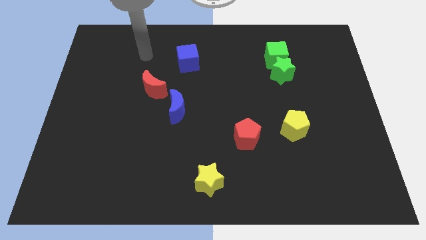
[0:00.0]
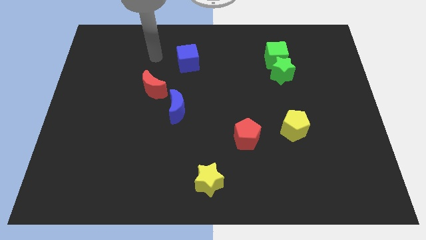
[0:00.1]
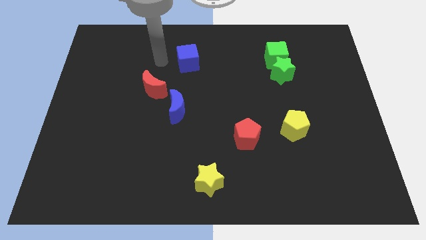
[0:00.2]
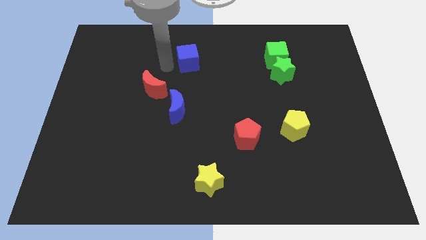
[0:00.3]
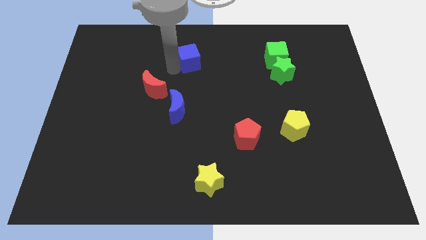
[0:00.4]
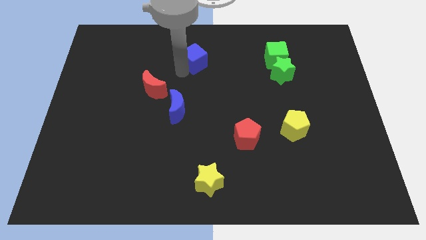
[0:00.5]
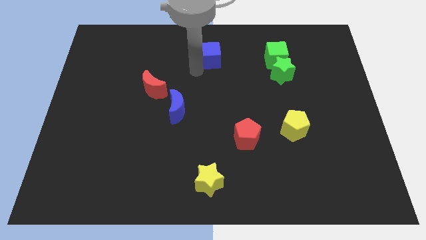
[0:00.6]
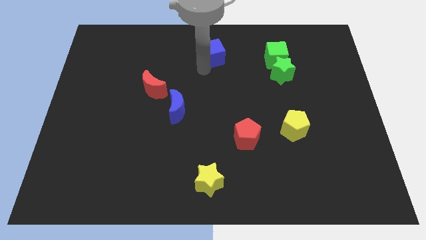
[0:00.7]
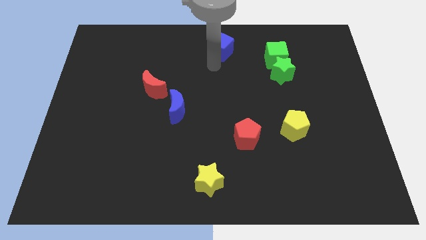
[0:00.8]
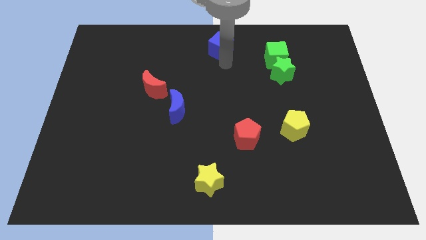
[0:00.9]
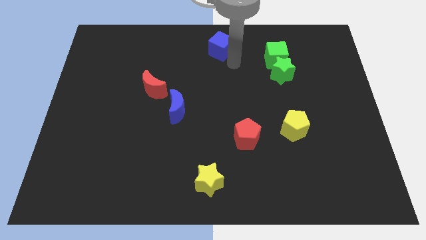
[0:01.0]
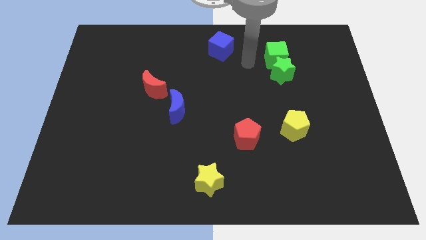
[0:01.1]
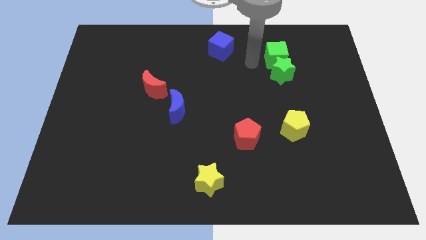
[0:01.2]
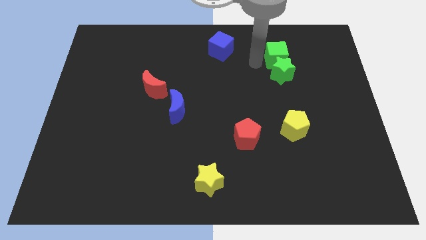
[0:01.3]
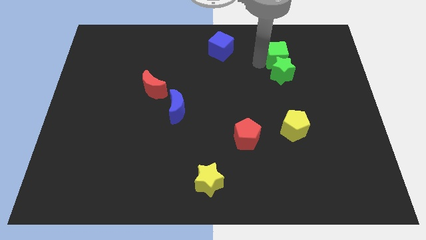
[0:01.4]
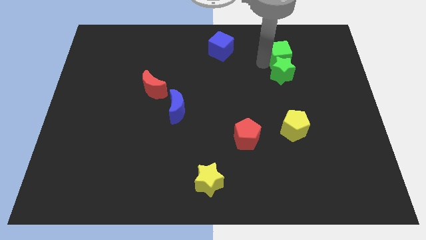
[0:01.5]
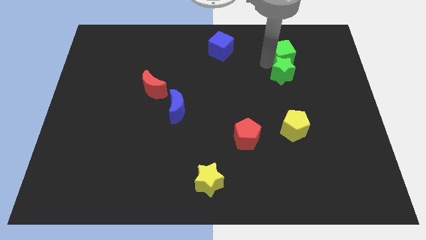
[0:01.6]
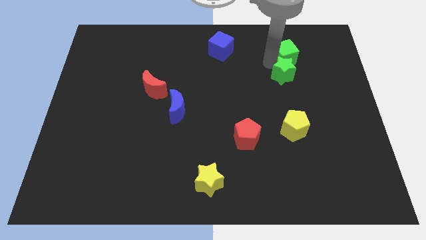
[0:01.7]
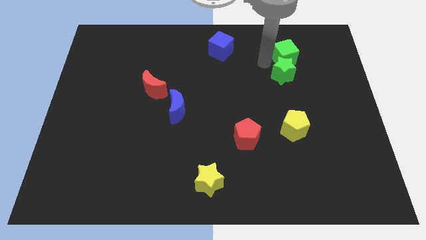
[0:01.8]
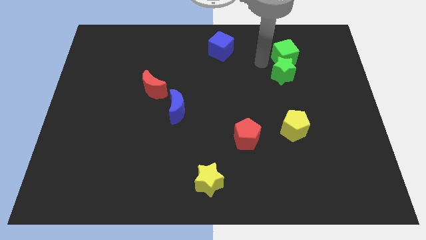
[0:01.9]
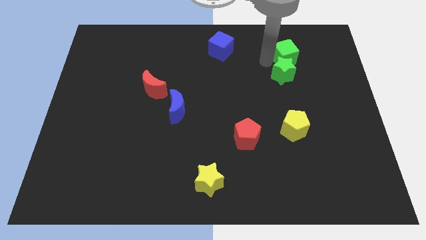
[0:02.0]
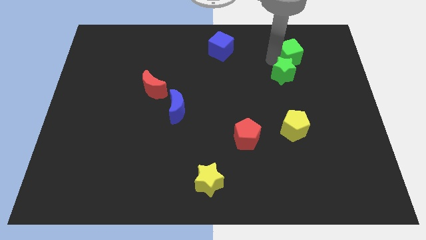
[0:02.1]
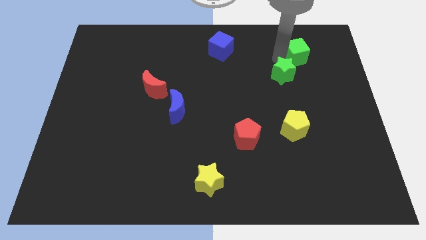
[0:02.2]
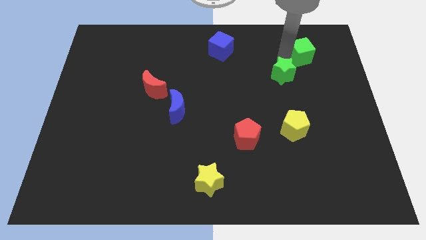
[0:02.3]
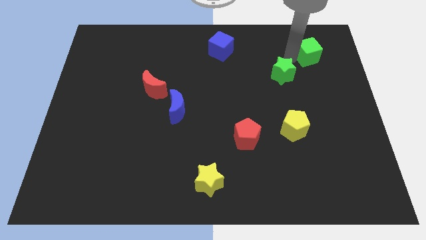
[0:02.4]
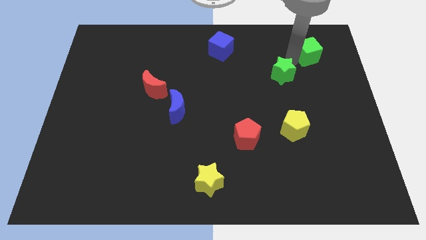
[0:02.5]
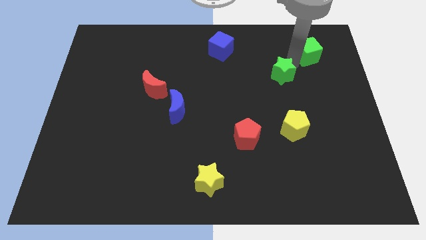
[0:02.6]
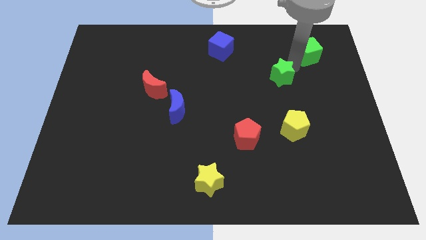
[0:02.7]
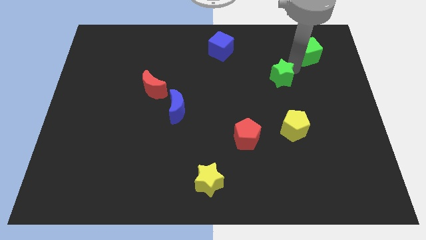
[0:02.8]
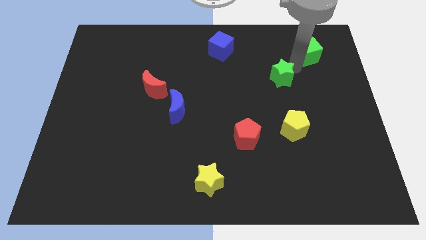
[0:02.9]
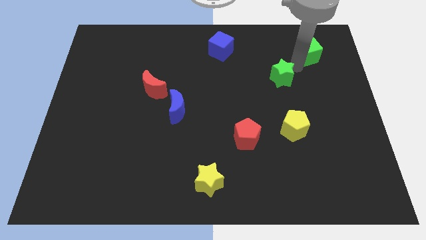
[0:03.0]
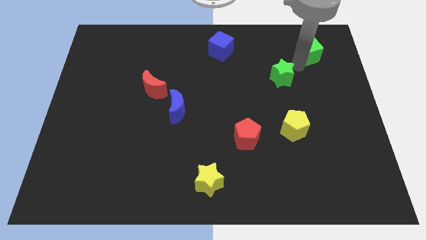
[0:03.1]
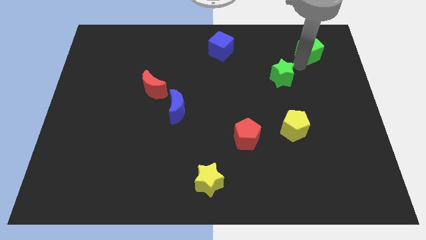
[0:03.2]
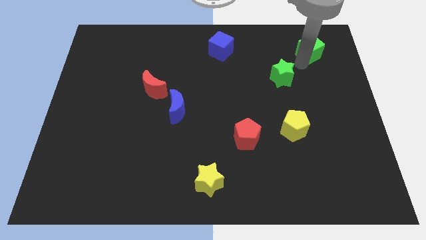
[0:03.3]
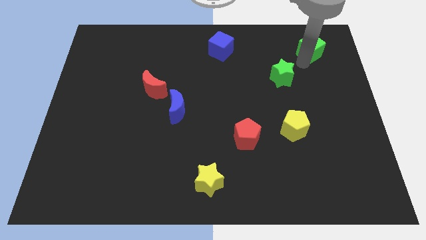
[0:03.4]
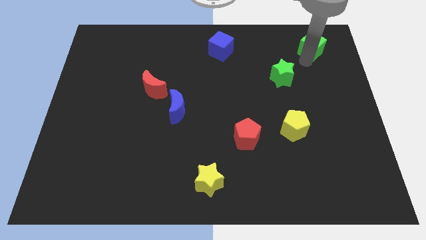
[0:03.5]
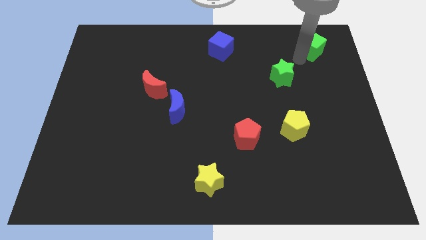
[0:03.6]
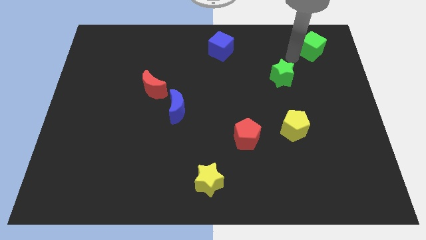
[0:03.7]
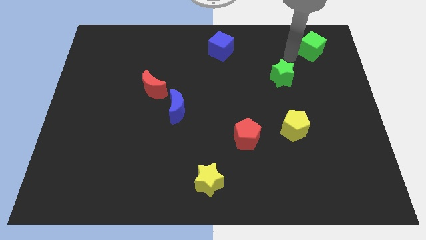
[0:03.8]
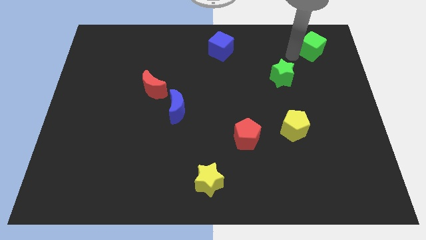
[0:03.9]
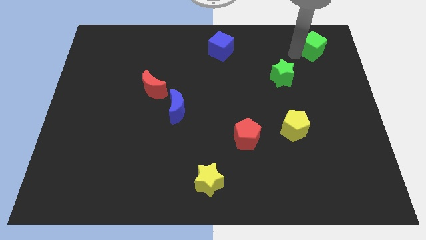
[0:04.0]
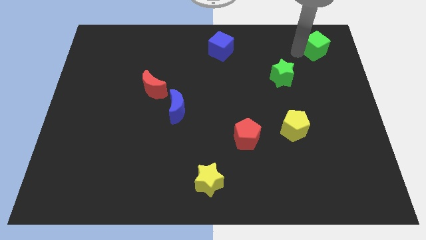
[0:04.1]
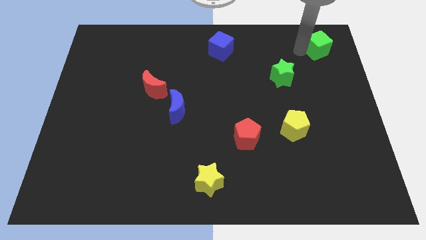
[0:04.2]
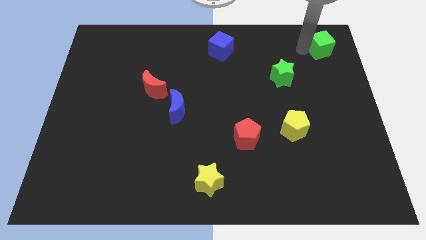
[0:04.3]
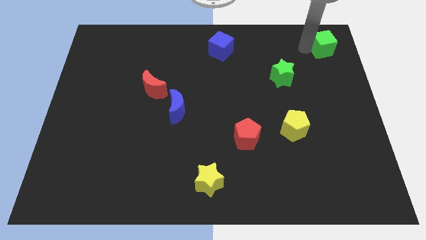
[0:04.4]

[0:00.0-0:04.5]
slide the green cube to the top right of the board

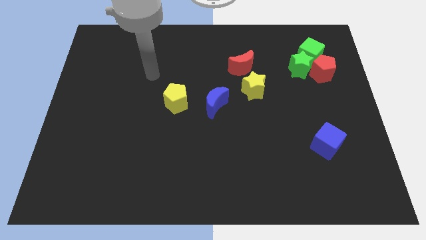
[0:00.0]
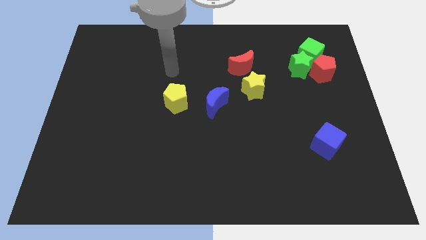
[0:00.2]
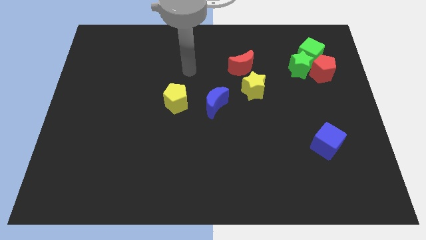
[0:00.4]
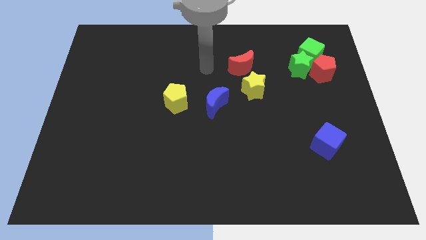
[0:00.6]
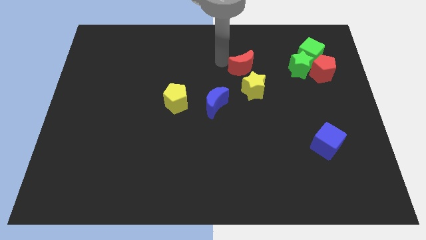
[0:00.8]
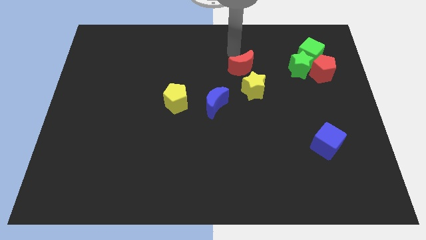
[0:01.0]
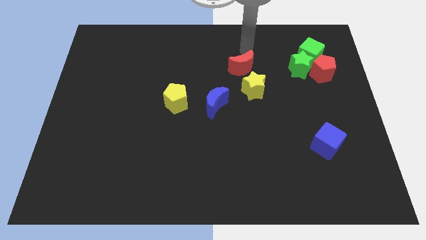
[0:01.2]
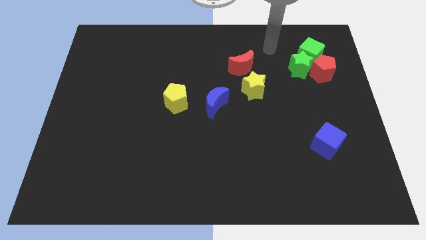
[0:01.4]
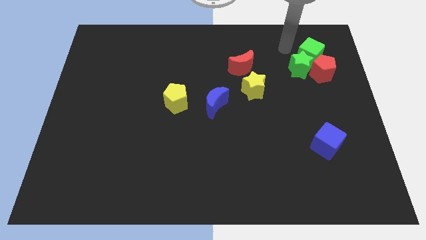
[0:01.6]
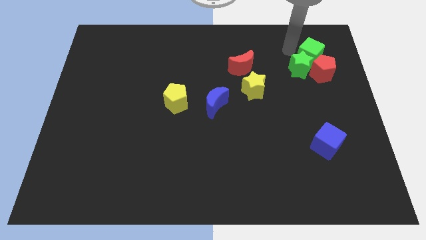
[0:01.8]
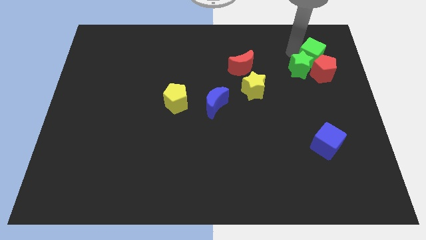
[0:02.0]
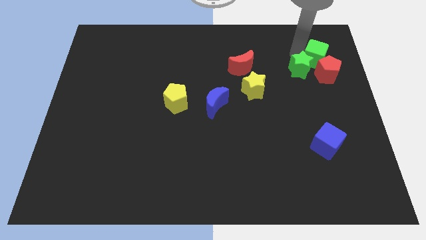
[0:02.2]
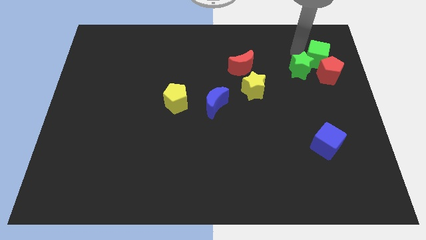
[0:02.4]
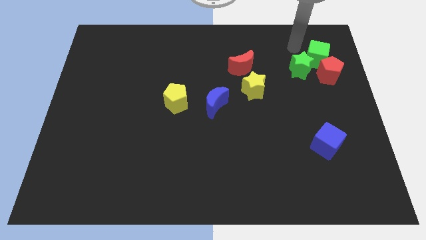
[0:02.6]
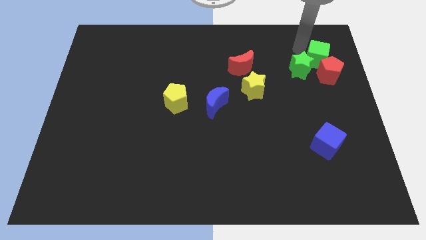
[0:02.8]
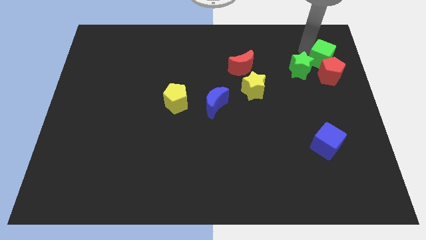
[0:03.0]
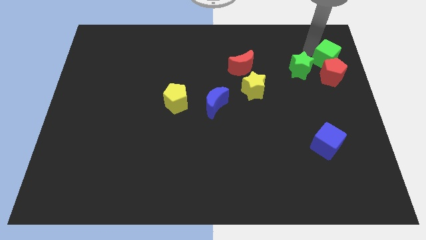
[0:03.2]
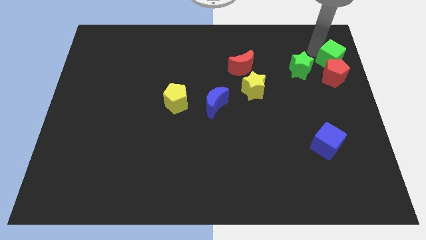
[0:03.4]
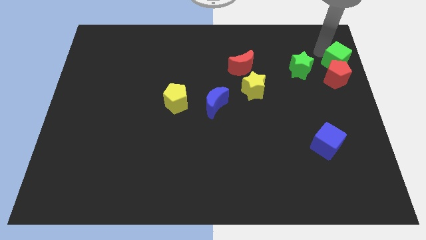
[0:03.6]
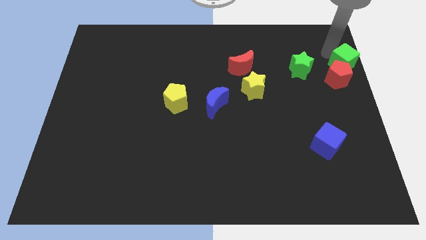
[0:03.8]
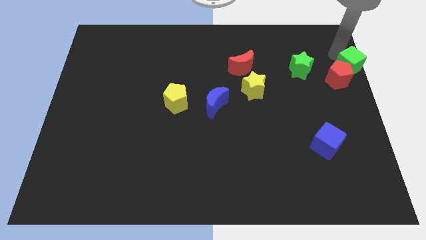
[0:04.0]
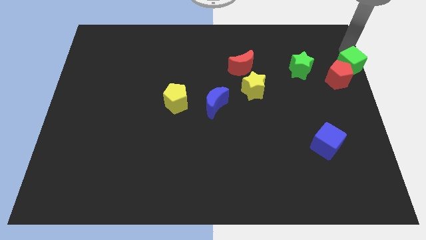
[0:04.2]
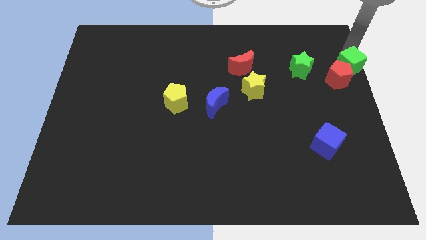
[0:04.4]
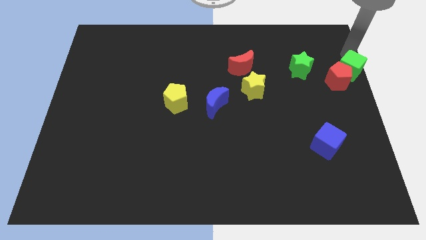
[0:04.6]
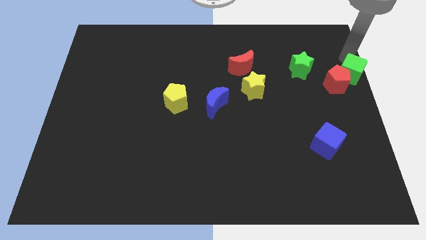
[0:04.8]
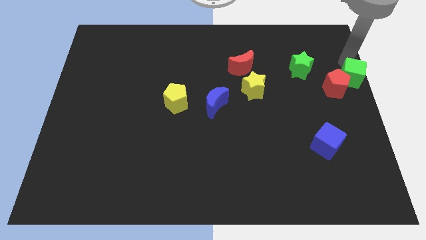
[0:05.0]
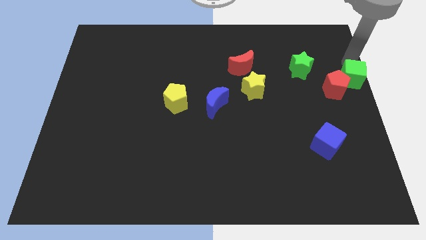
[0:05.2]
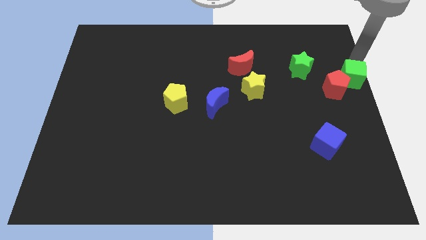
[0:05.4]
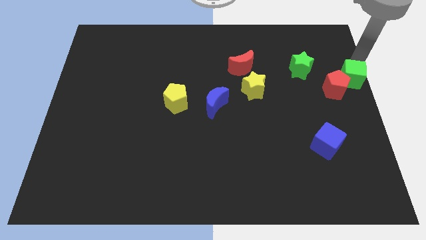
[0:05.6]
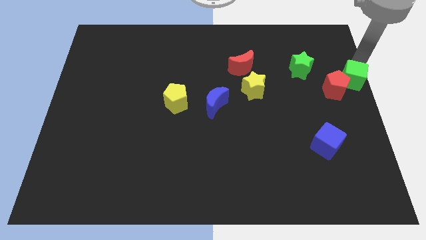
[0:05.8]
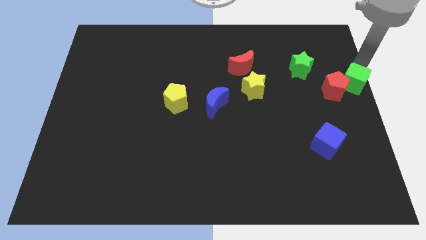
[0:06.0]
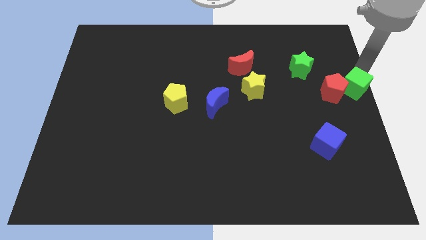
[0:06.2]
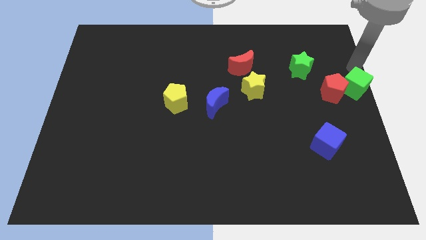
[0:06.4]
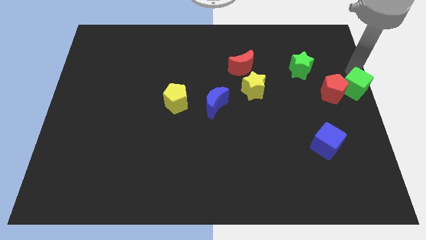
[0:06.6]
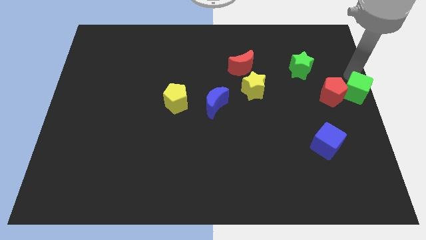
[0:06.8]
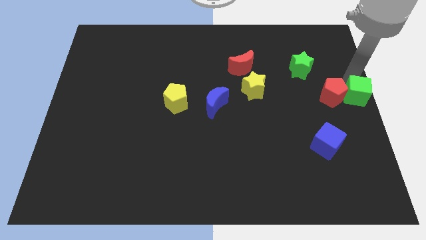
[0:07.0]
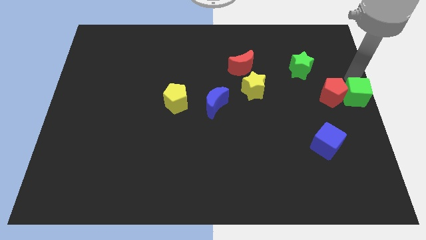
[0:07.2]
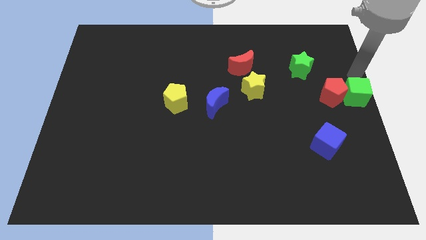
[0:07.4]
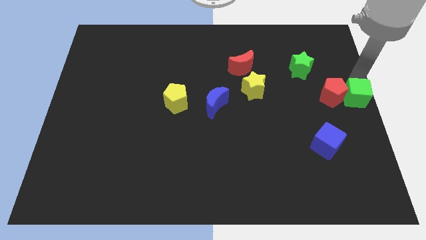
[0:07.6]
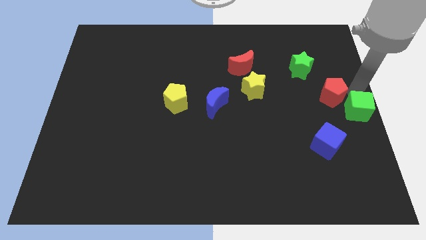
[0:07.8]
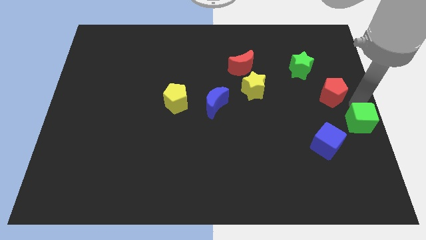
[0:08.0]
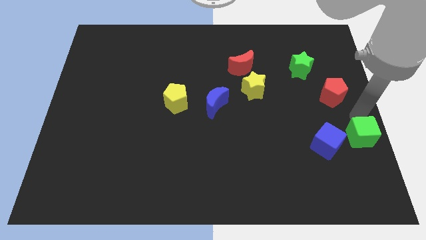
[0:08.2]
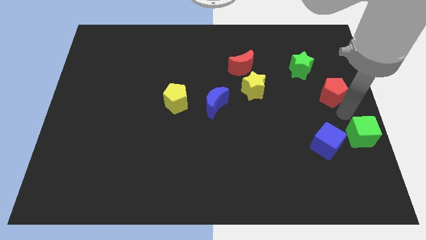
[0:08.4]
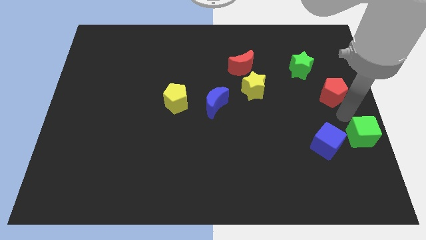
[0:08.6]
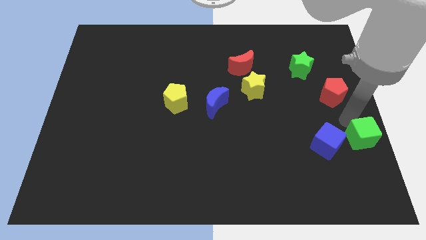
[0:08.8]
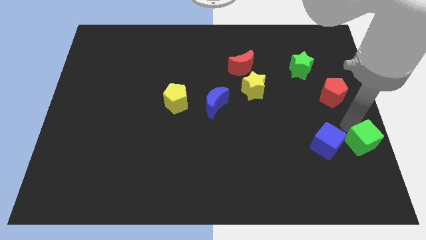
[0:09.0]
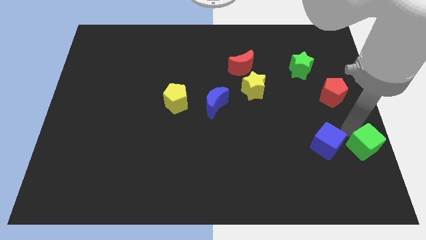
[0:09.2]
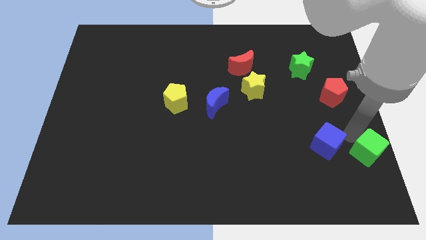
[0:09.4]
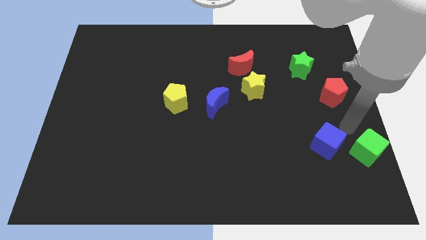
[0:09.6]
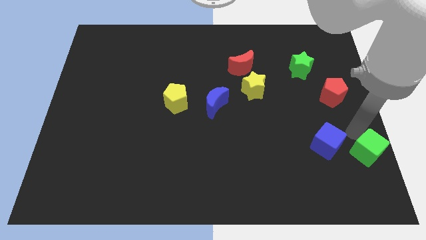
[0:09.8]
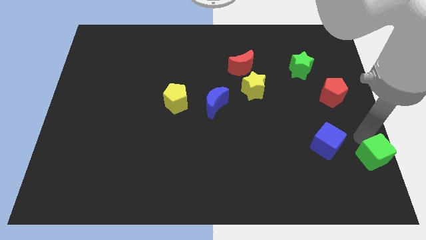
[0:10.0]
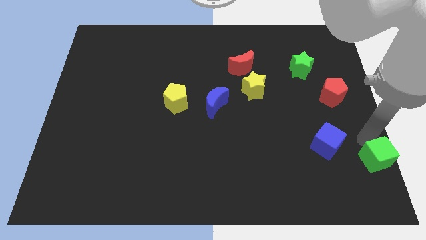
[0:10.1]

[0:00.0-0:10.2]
slide the green cube to the bottom right of the board
